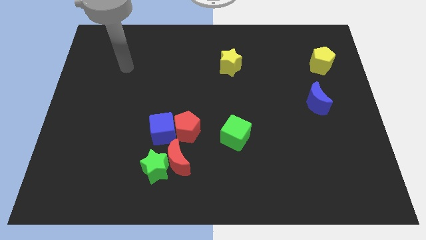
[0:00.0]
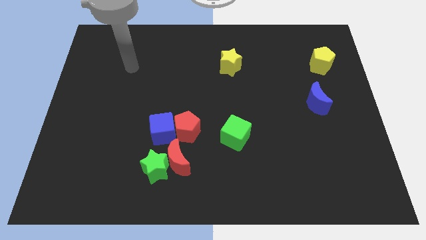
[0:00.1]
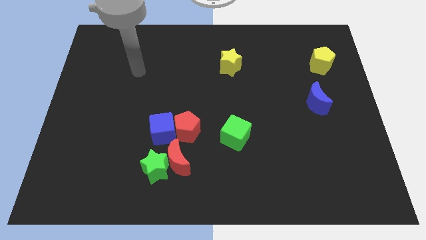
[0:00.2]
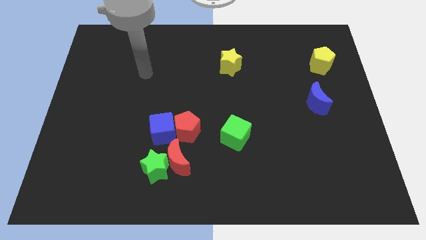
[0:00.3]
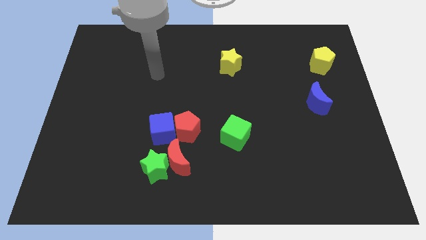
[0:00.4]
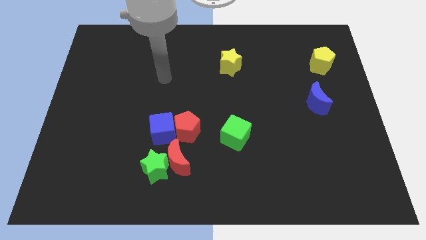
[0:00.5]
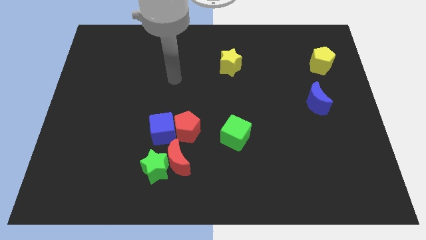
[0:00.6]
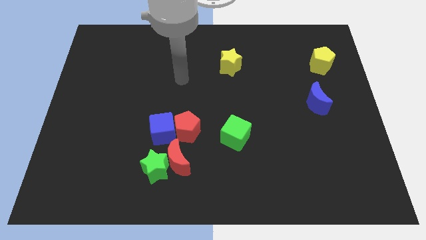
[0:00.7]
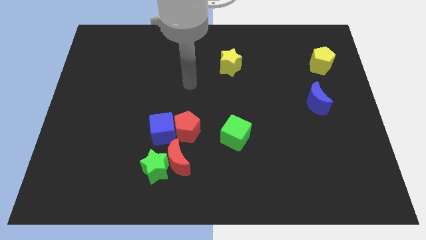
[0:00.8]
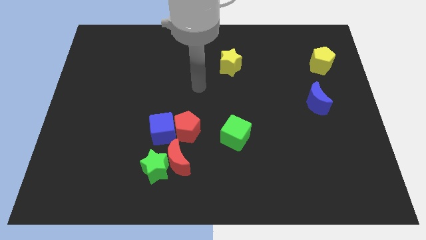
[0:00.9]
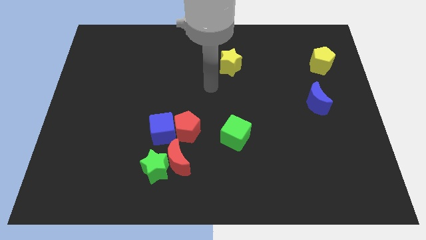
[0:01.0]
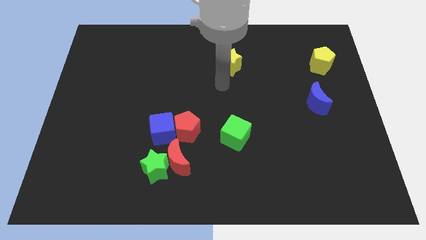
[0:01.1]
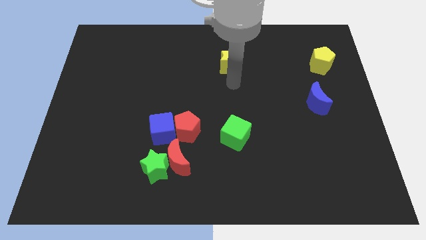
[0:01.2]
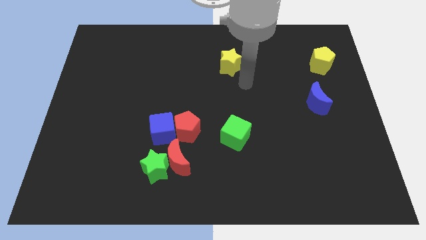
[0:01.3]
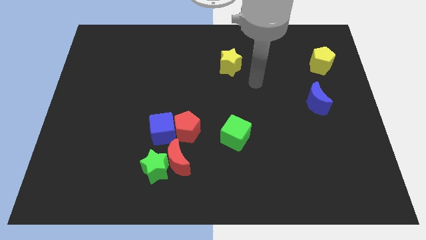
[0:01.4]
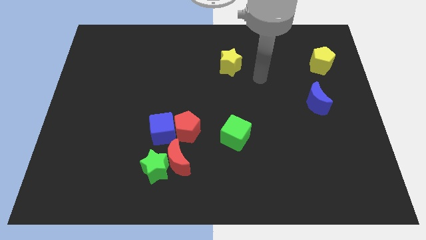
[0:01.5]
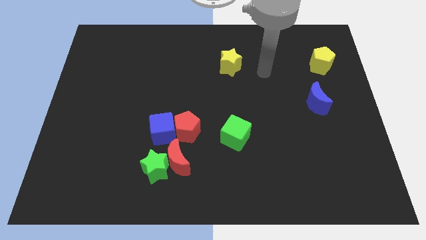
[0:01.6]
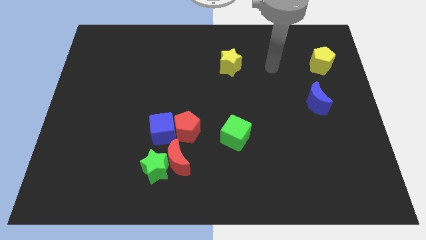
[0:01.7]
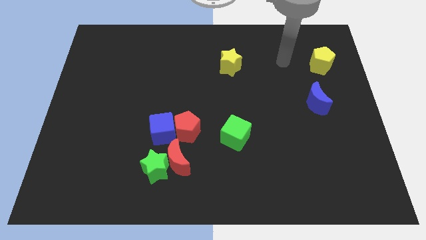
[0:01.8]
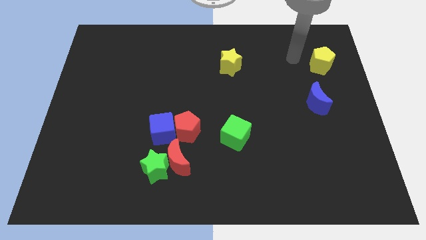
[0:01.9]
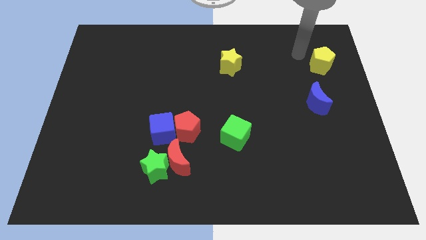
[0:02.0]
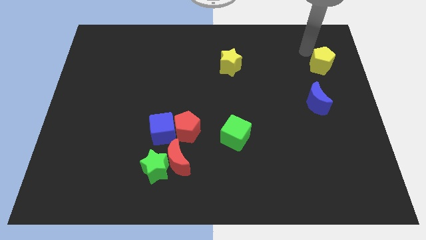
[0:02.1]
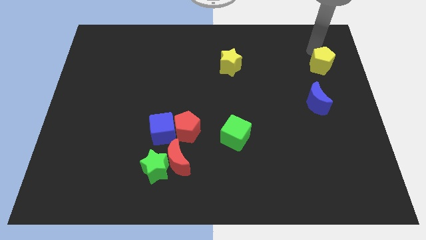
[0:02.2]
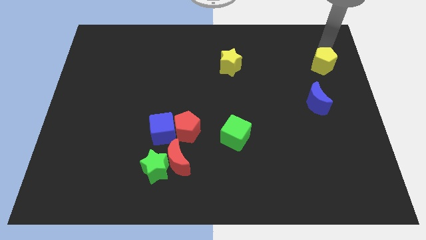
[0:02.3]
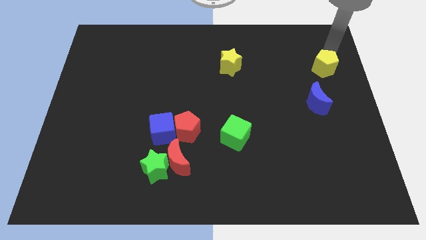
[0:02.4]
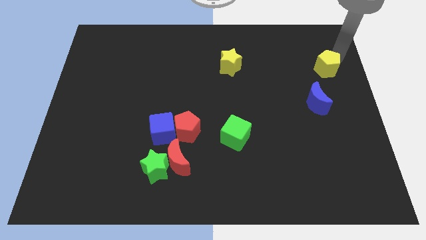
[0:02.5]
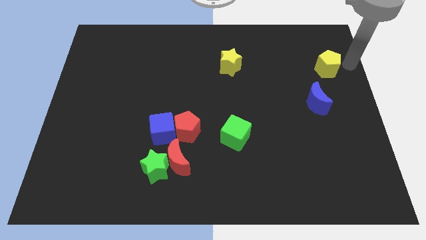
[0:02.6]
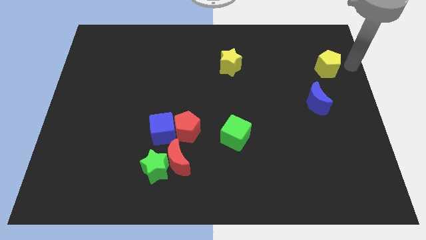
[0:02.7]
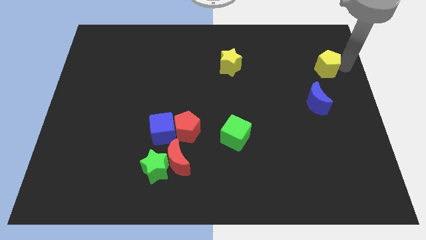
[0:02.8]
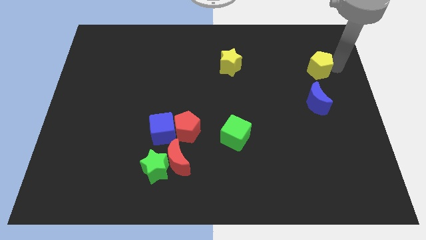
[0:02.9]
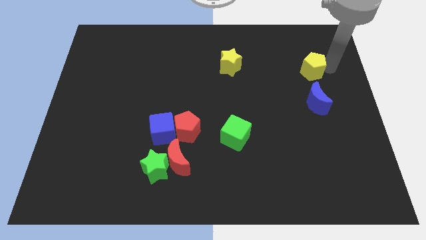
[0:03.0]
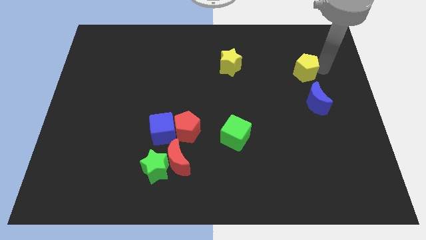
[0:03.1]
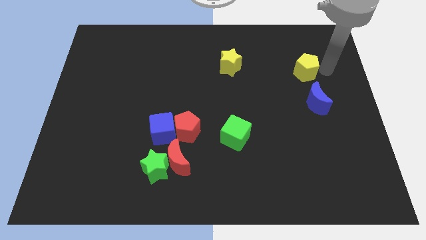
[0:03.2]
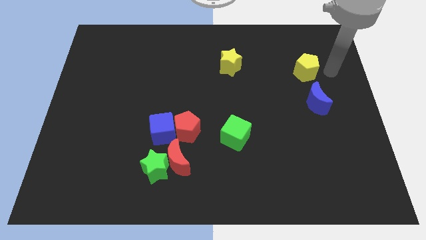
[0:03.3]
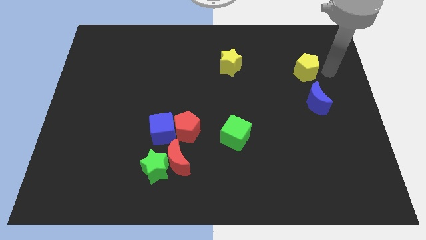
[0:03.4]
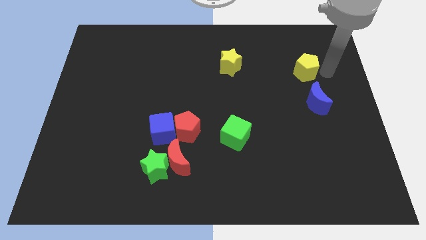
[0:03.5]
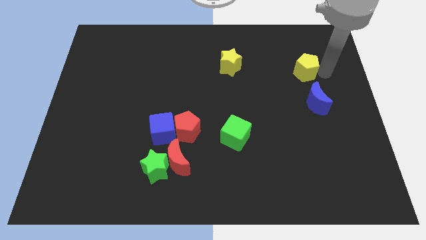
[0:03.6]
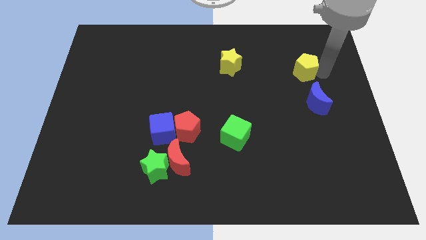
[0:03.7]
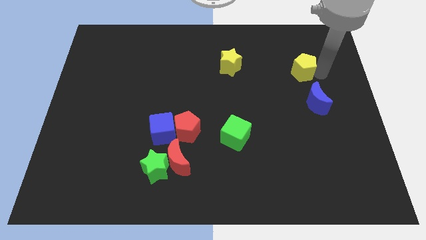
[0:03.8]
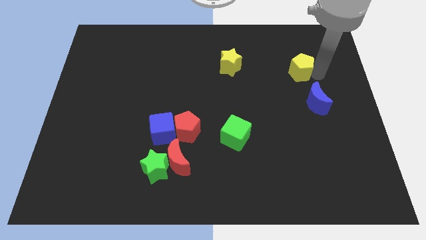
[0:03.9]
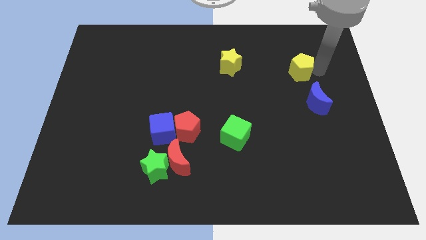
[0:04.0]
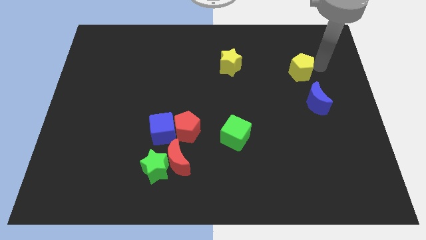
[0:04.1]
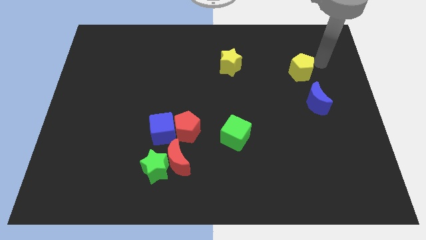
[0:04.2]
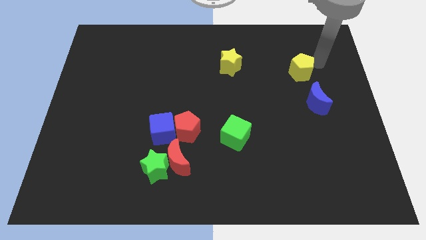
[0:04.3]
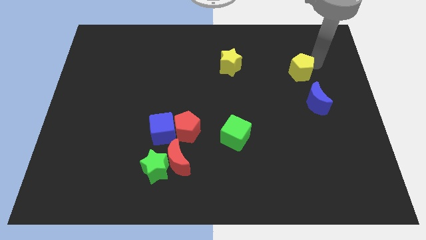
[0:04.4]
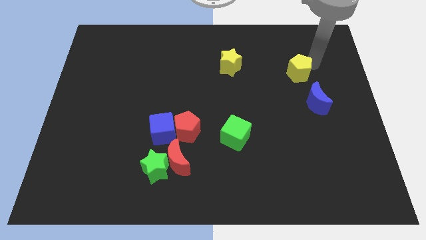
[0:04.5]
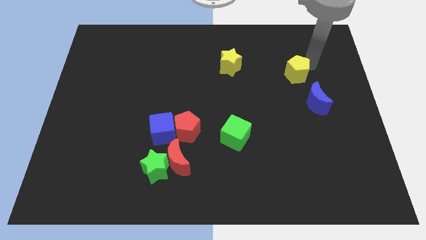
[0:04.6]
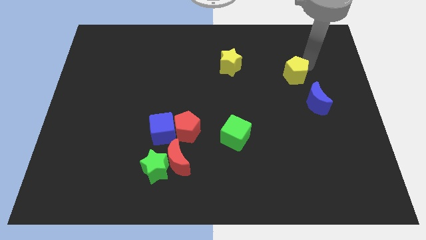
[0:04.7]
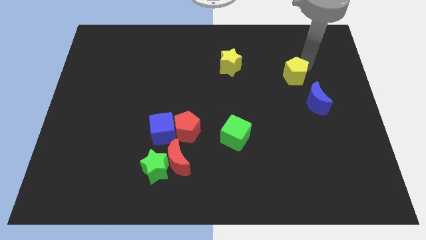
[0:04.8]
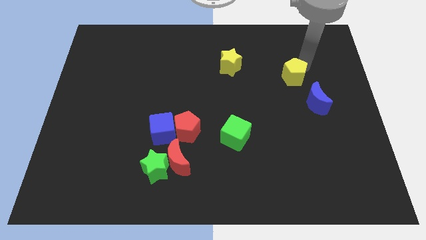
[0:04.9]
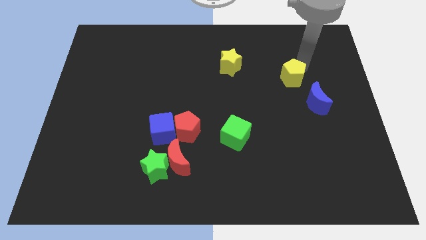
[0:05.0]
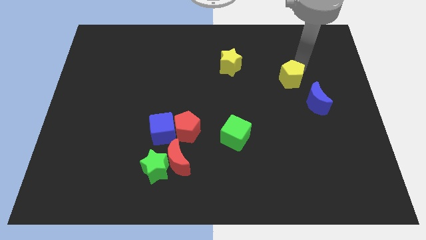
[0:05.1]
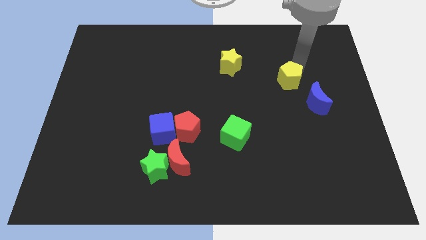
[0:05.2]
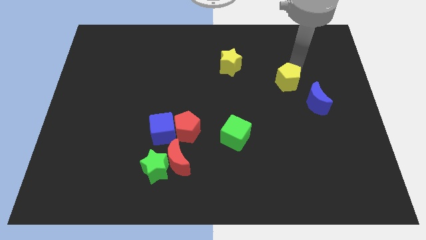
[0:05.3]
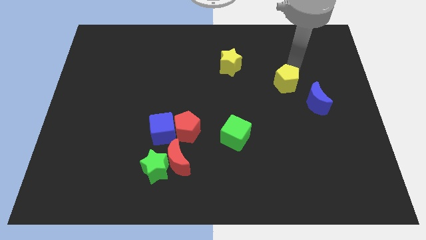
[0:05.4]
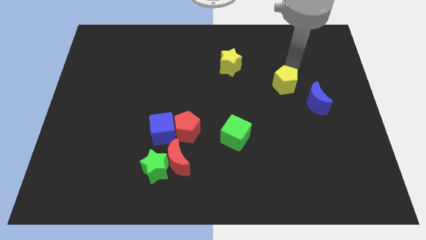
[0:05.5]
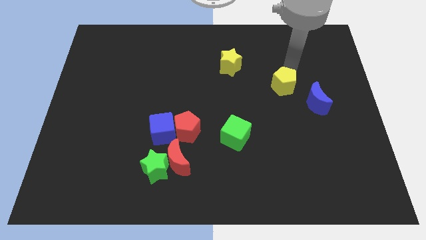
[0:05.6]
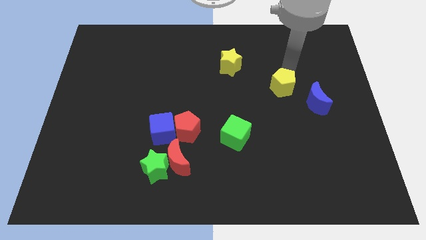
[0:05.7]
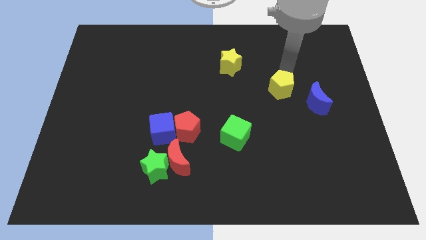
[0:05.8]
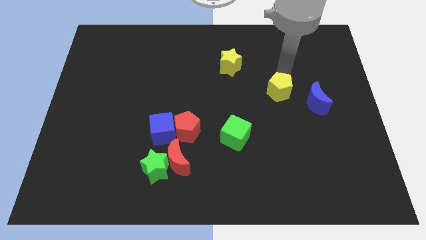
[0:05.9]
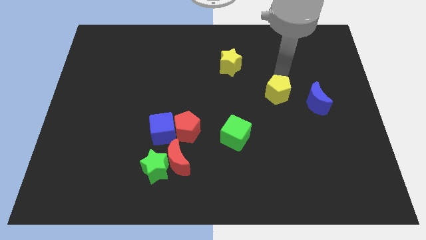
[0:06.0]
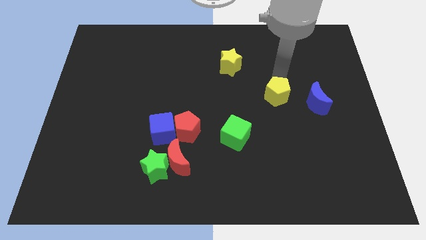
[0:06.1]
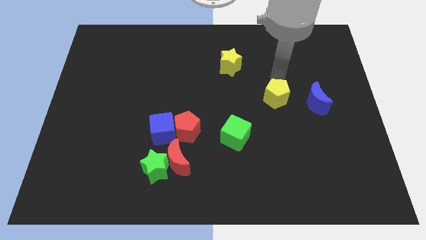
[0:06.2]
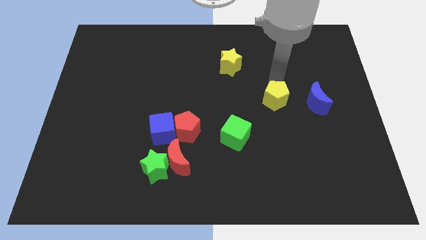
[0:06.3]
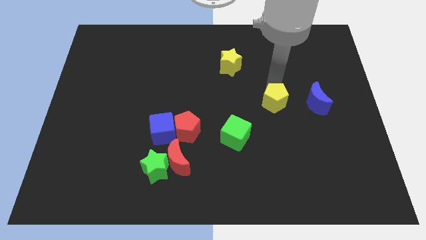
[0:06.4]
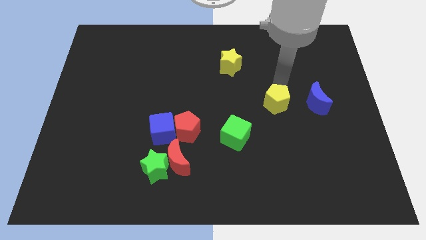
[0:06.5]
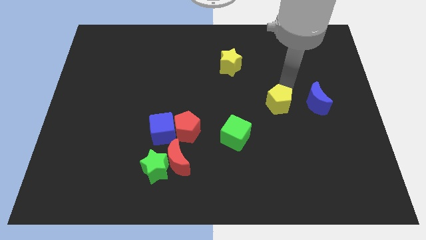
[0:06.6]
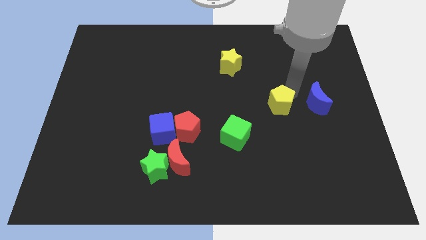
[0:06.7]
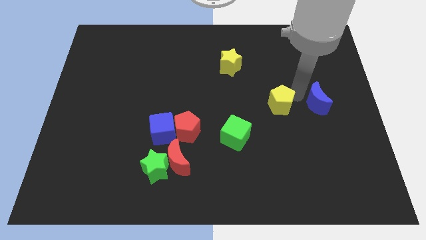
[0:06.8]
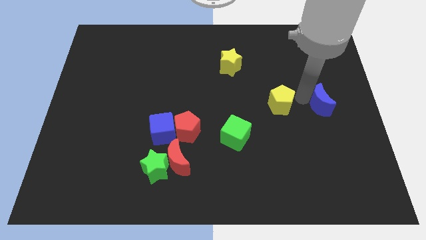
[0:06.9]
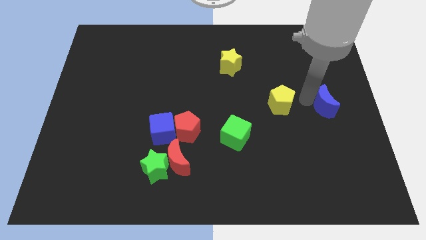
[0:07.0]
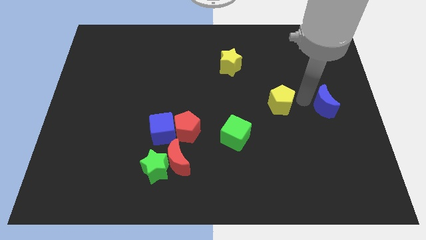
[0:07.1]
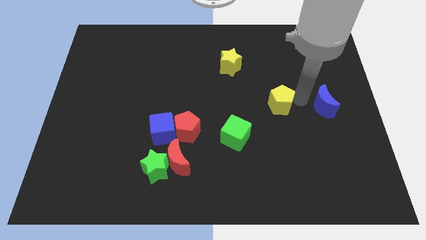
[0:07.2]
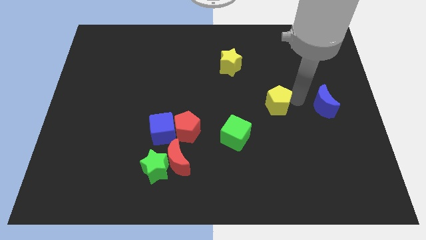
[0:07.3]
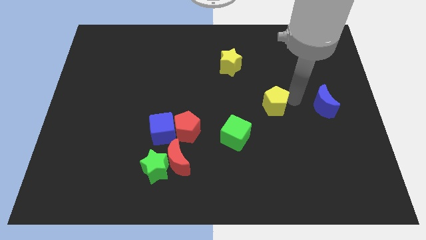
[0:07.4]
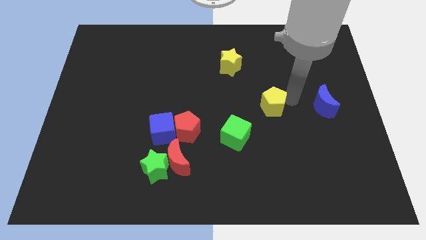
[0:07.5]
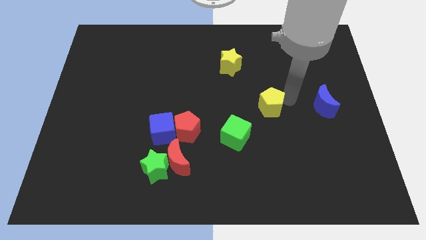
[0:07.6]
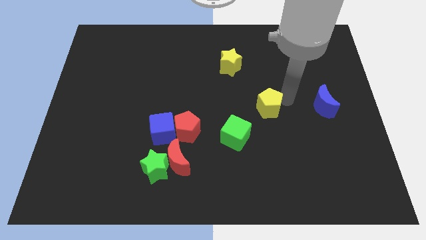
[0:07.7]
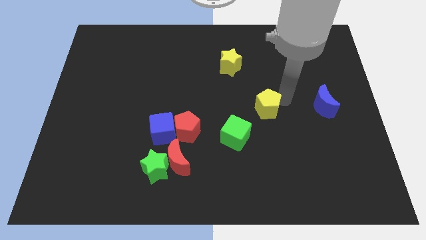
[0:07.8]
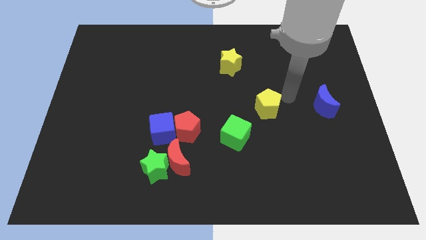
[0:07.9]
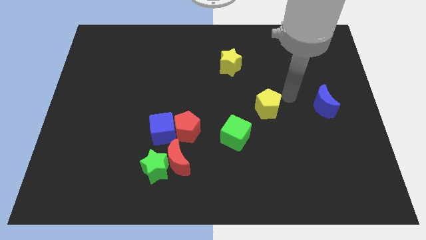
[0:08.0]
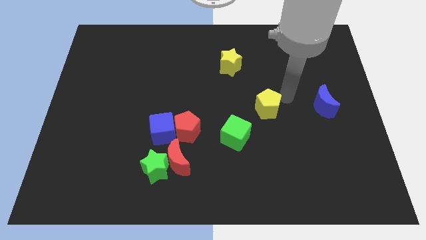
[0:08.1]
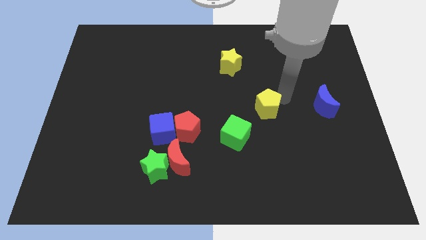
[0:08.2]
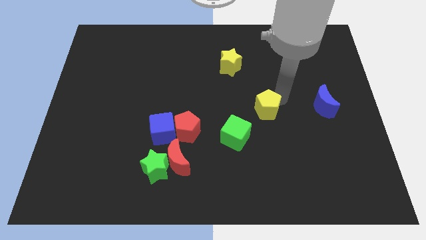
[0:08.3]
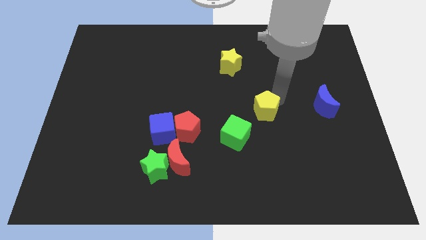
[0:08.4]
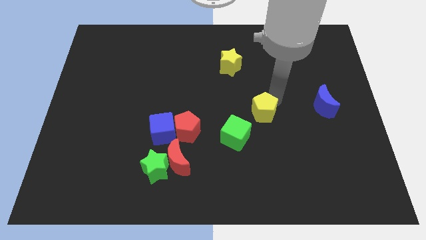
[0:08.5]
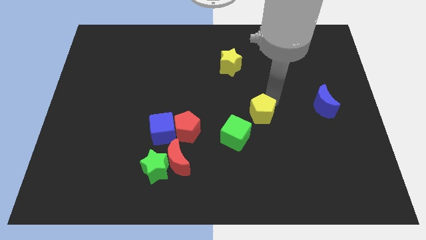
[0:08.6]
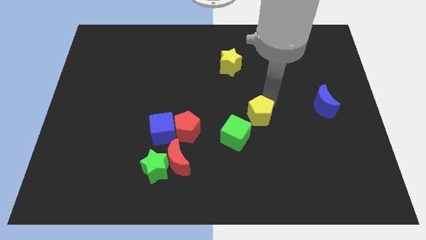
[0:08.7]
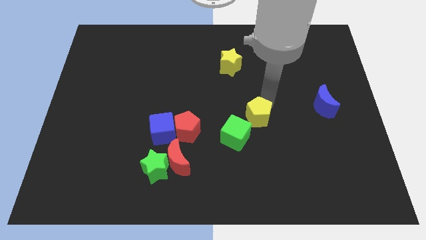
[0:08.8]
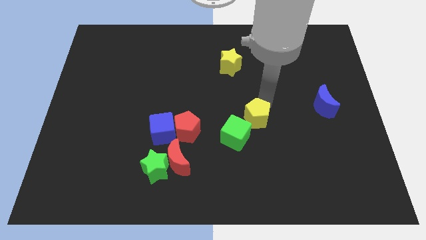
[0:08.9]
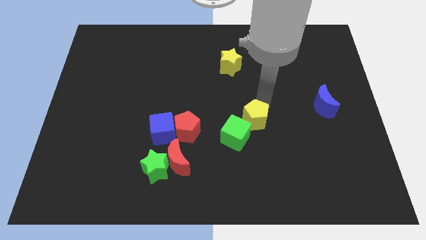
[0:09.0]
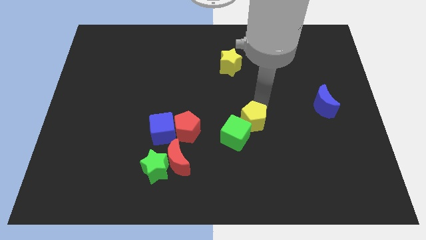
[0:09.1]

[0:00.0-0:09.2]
slide the yellow pentagon towards the green cube
